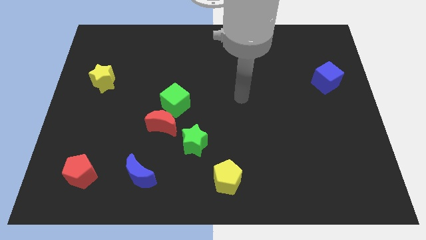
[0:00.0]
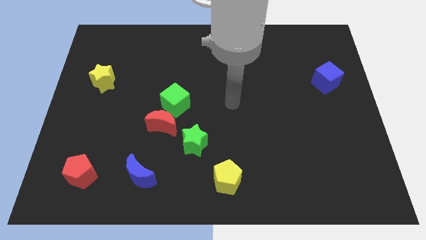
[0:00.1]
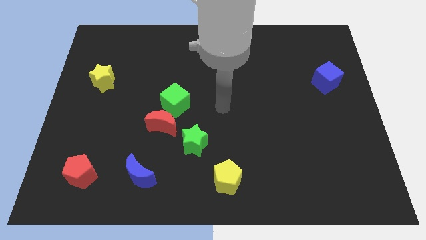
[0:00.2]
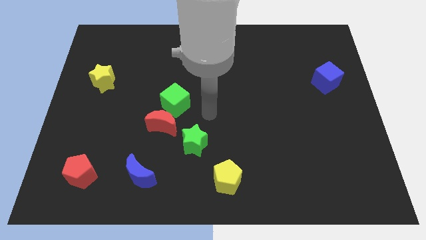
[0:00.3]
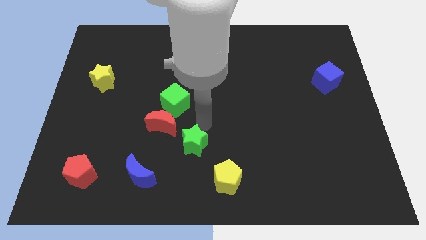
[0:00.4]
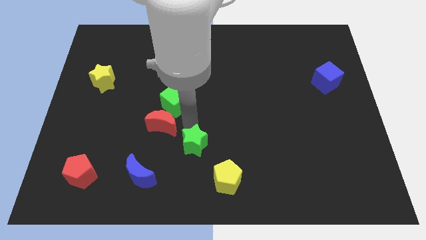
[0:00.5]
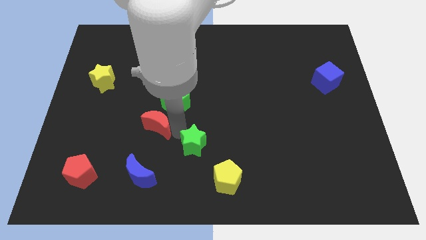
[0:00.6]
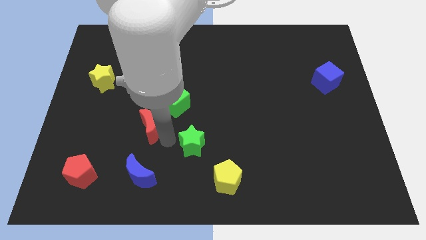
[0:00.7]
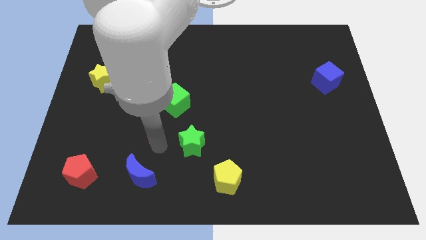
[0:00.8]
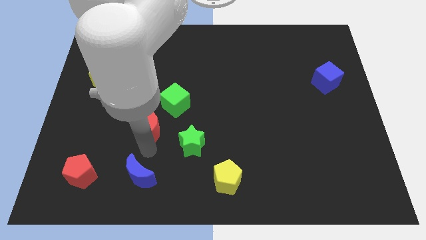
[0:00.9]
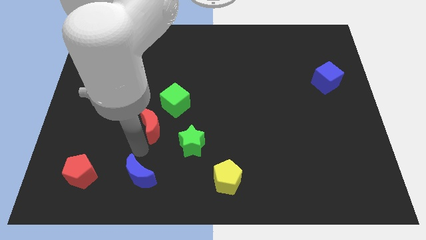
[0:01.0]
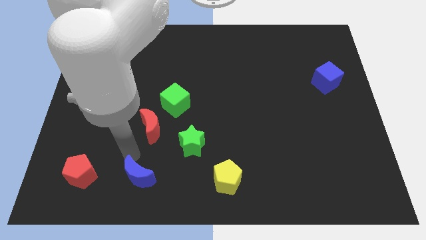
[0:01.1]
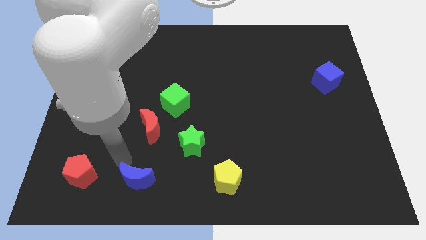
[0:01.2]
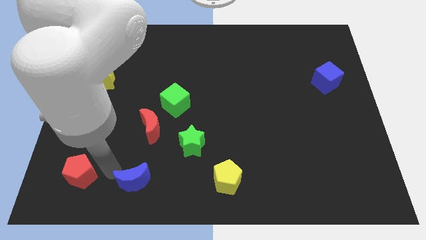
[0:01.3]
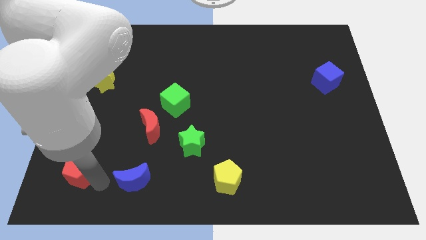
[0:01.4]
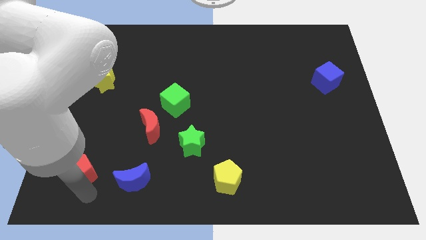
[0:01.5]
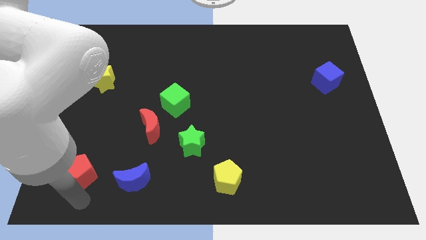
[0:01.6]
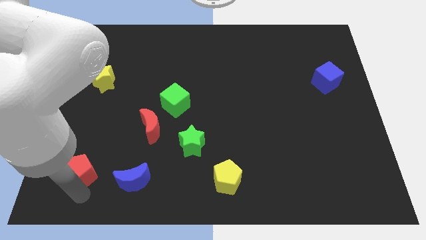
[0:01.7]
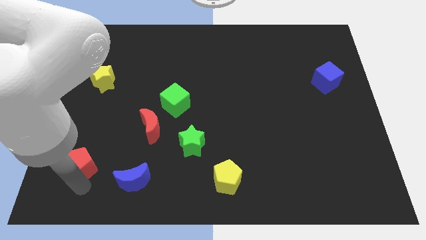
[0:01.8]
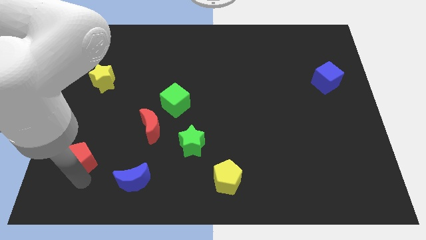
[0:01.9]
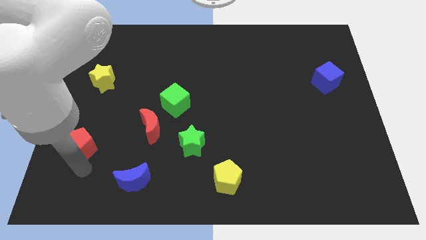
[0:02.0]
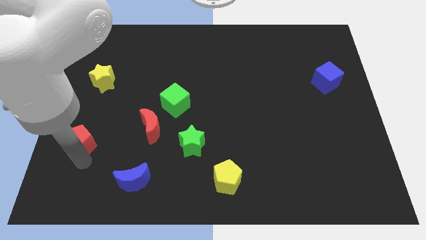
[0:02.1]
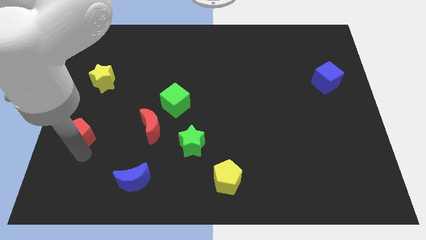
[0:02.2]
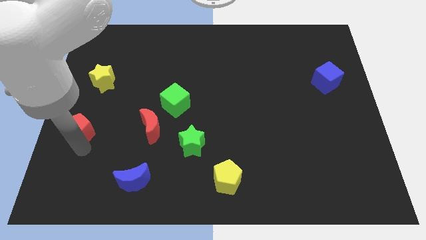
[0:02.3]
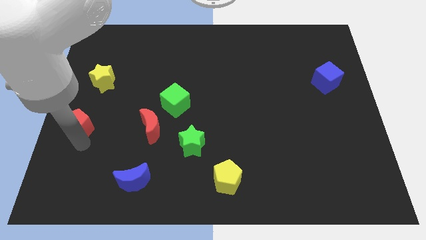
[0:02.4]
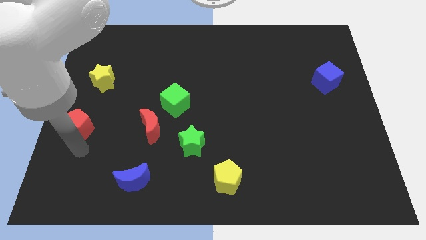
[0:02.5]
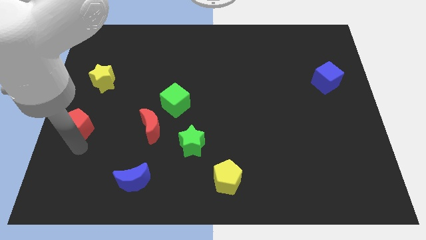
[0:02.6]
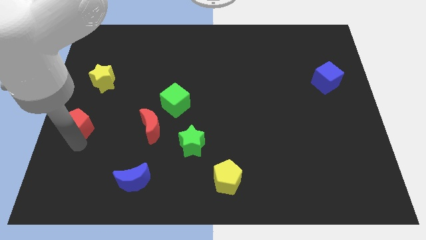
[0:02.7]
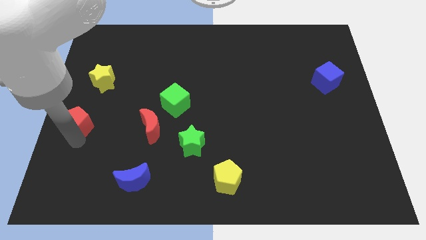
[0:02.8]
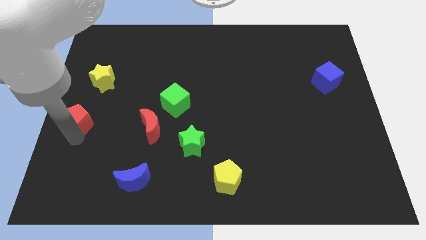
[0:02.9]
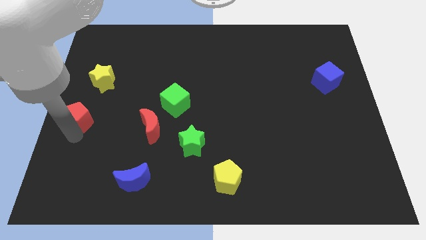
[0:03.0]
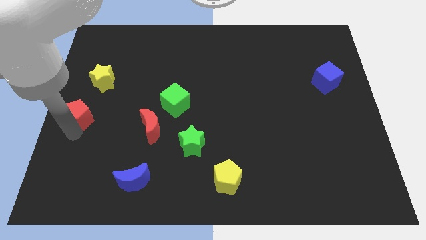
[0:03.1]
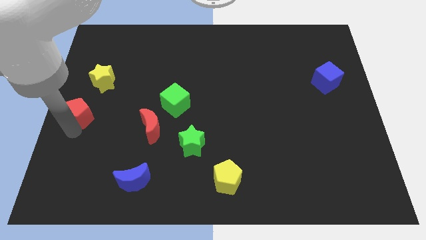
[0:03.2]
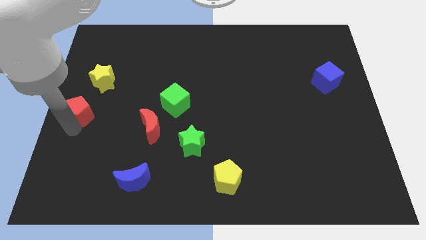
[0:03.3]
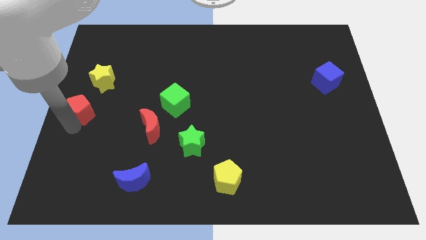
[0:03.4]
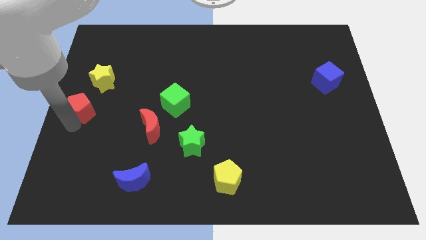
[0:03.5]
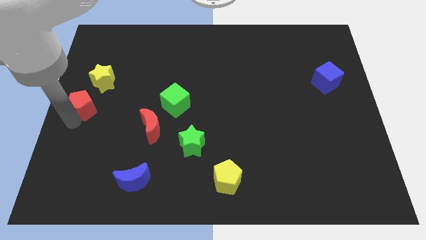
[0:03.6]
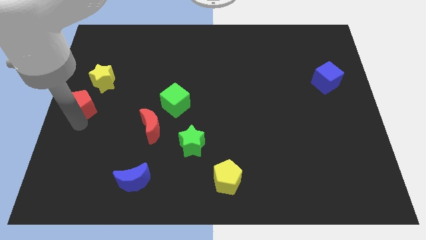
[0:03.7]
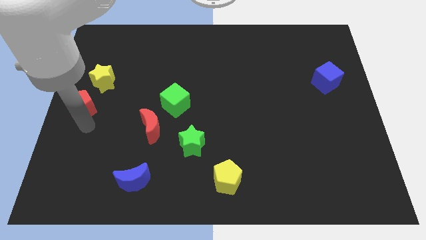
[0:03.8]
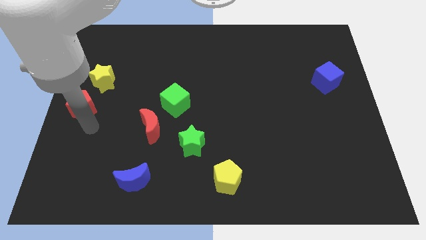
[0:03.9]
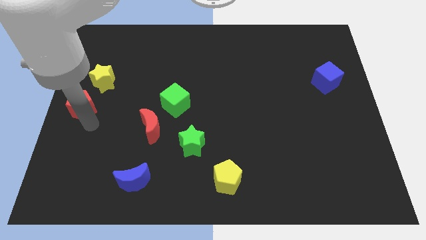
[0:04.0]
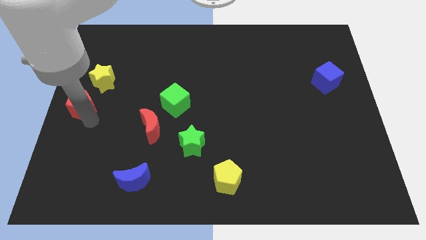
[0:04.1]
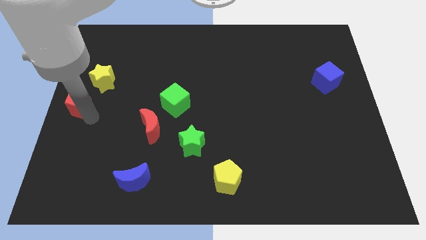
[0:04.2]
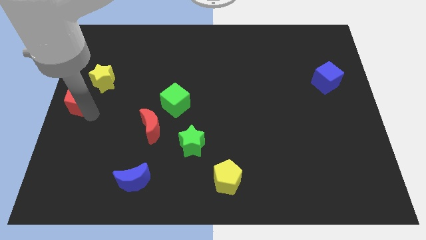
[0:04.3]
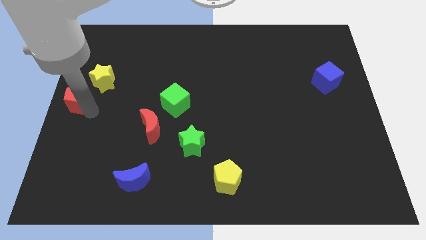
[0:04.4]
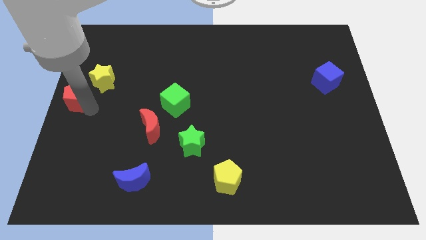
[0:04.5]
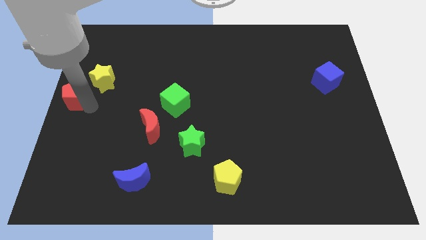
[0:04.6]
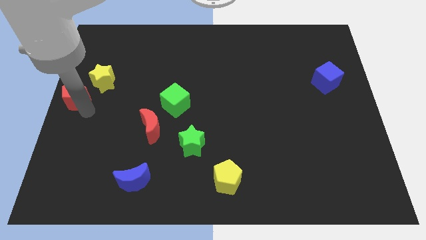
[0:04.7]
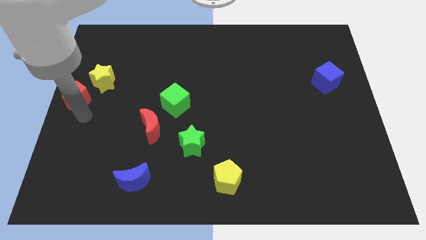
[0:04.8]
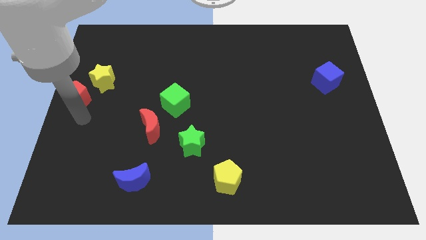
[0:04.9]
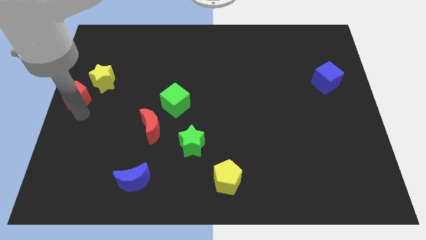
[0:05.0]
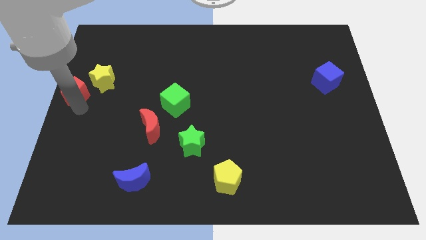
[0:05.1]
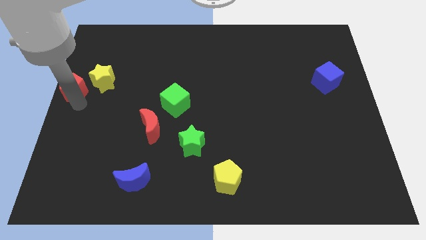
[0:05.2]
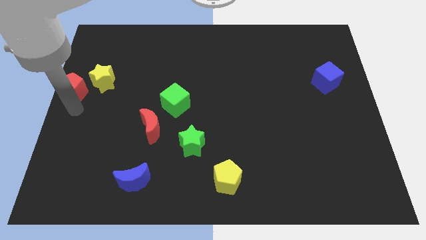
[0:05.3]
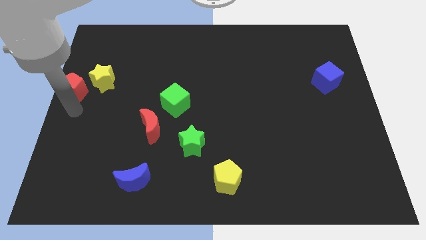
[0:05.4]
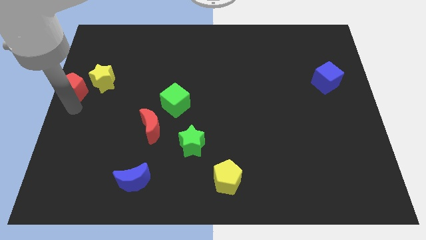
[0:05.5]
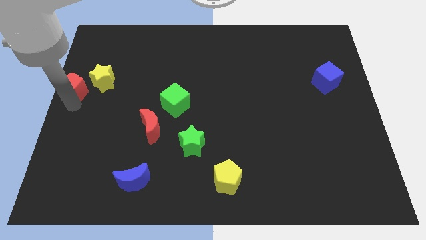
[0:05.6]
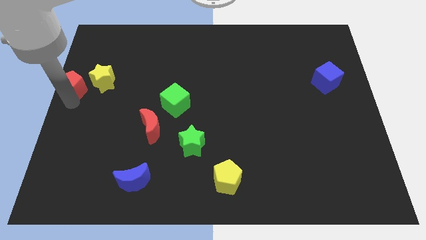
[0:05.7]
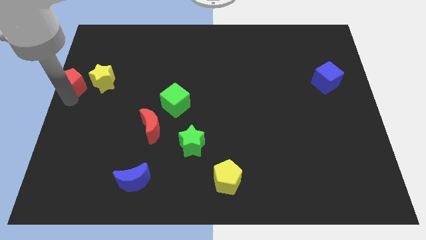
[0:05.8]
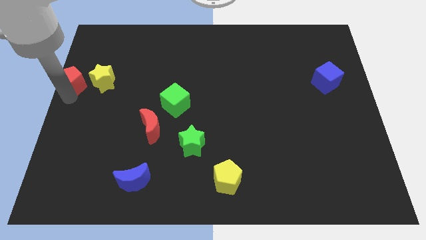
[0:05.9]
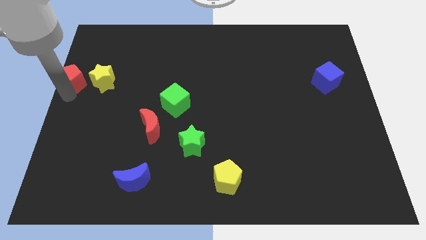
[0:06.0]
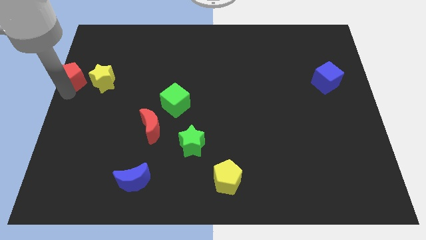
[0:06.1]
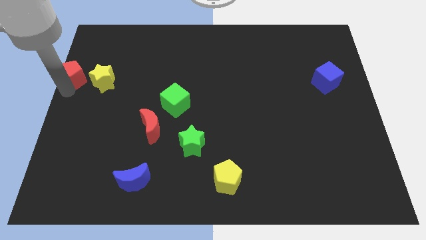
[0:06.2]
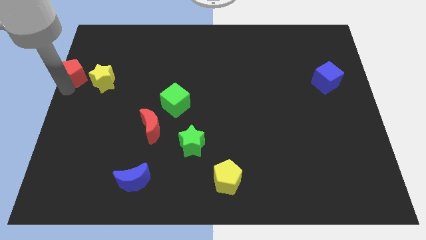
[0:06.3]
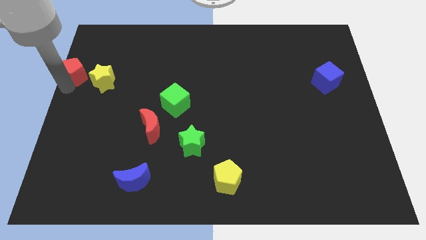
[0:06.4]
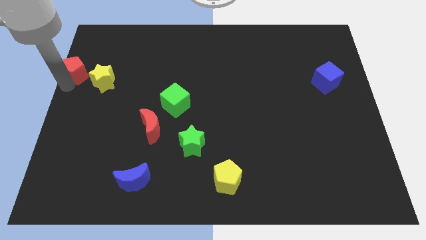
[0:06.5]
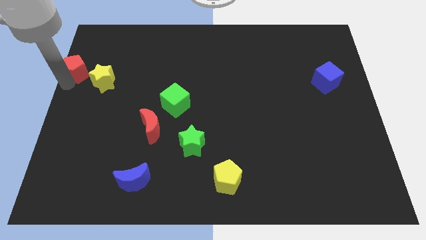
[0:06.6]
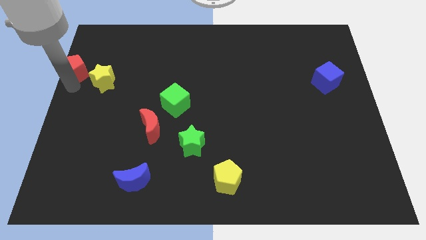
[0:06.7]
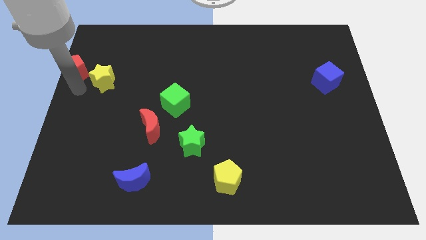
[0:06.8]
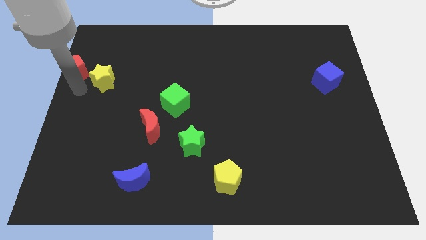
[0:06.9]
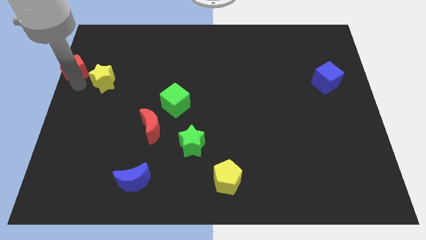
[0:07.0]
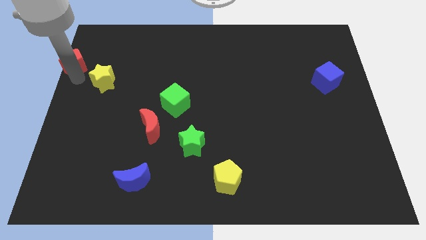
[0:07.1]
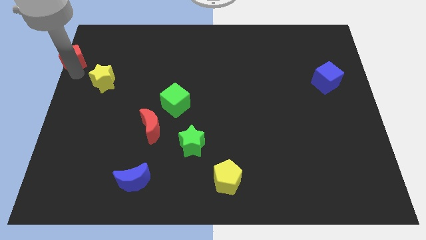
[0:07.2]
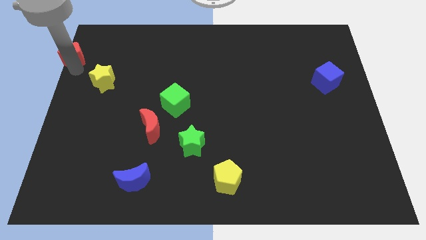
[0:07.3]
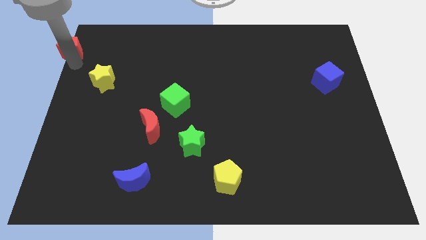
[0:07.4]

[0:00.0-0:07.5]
push the red pentagon to the top left
